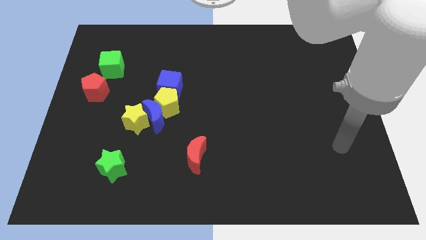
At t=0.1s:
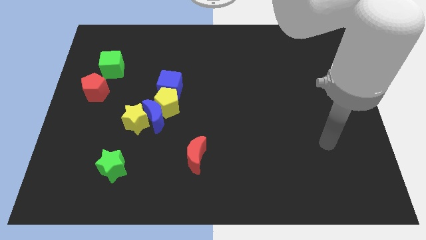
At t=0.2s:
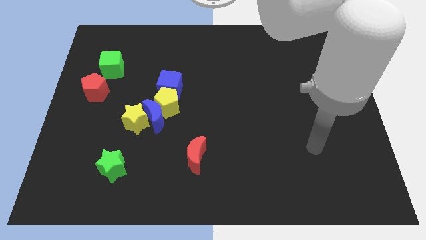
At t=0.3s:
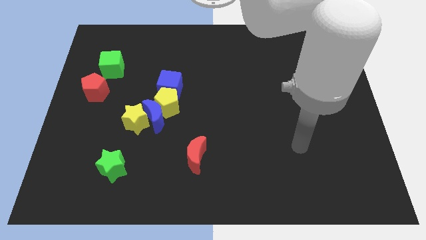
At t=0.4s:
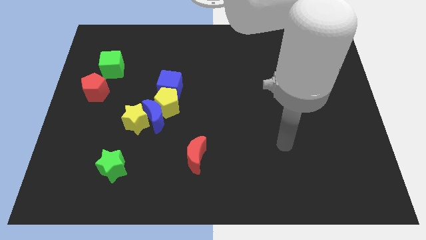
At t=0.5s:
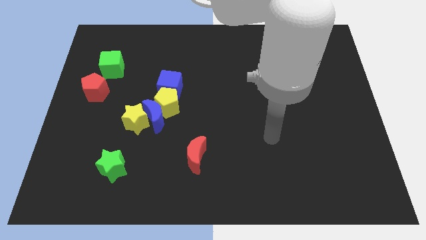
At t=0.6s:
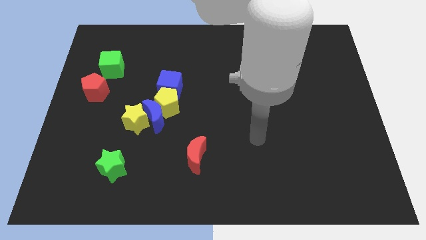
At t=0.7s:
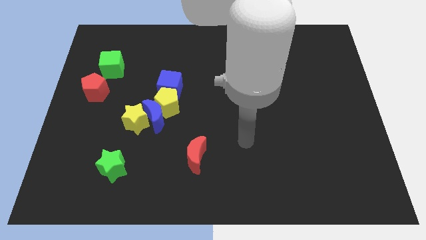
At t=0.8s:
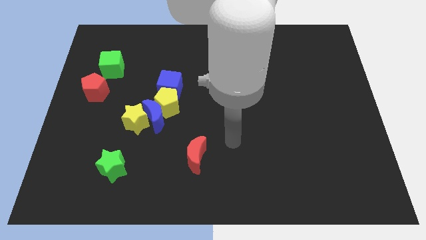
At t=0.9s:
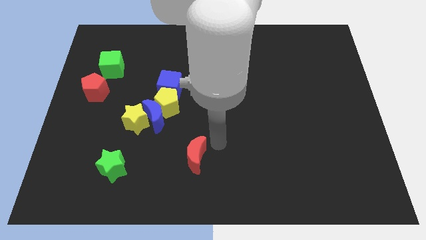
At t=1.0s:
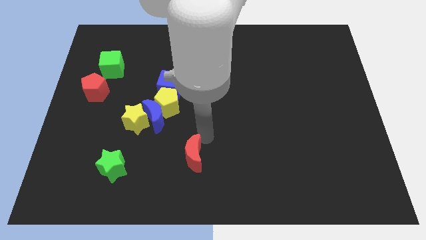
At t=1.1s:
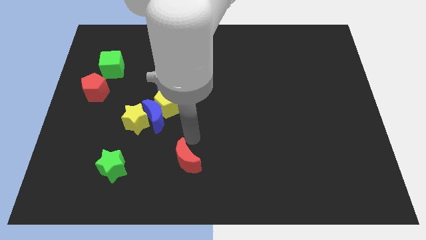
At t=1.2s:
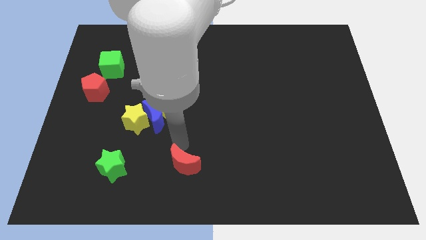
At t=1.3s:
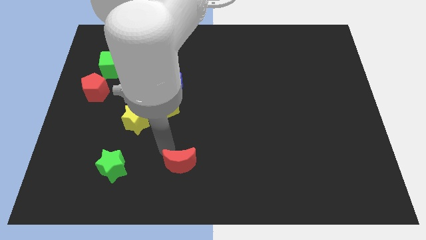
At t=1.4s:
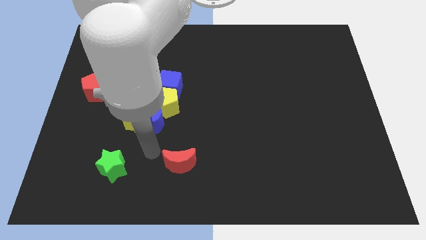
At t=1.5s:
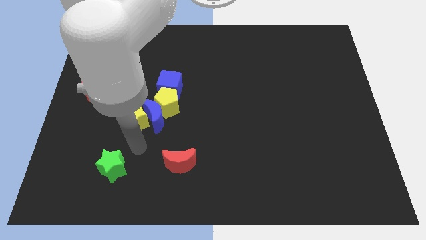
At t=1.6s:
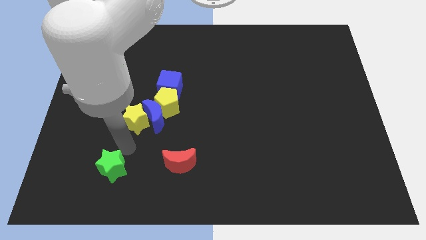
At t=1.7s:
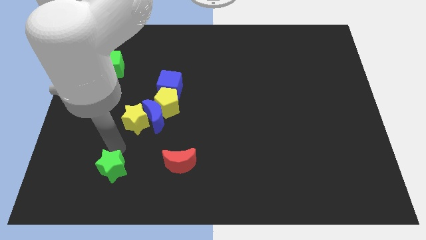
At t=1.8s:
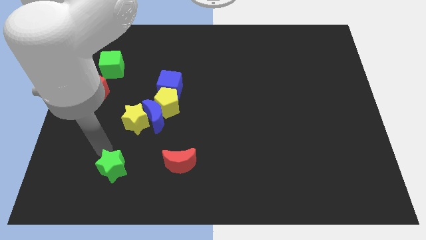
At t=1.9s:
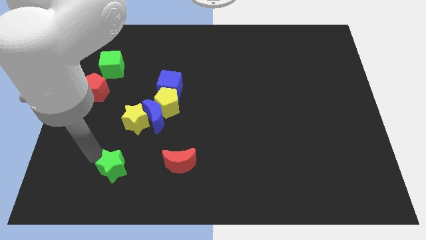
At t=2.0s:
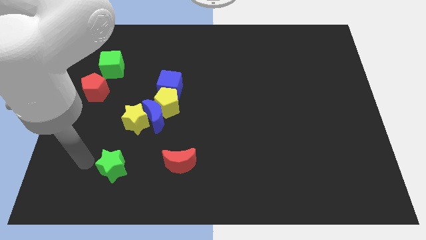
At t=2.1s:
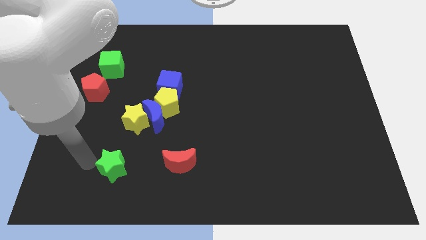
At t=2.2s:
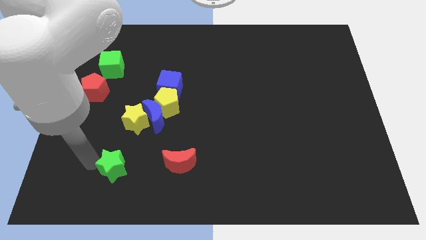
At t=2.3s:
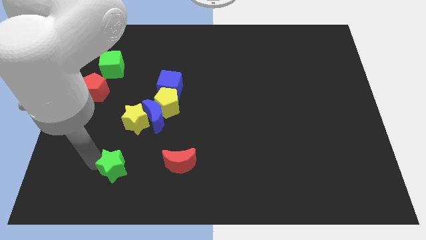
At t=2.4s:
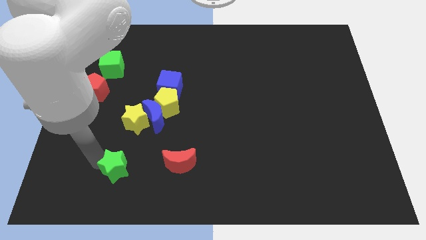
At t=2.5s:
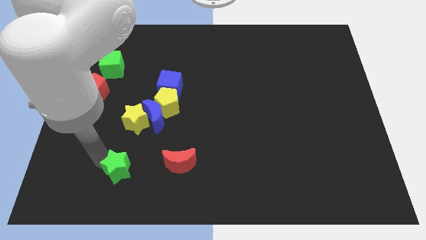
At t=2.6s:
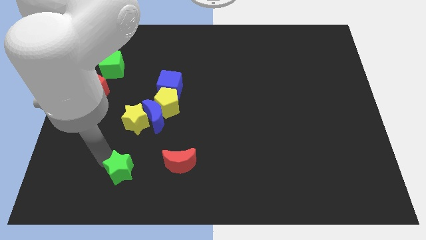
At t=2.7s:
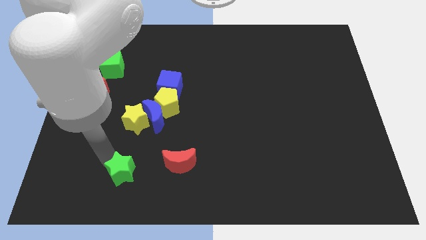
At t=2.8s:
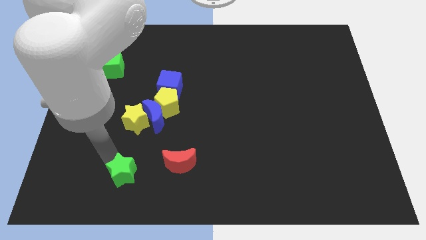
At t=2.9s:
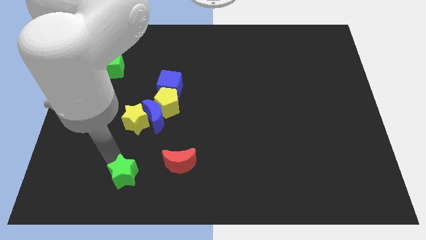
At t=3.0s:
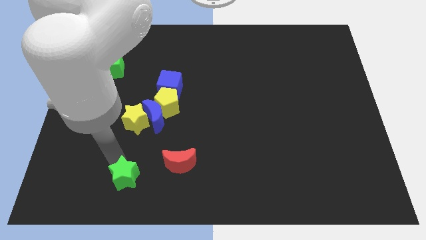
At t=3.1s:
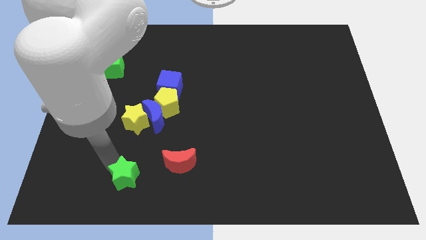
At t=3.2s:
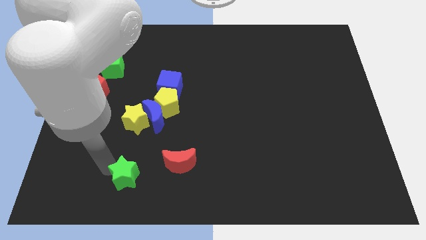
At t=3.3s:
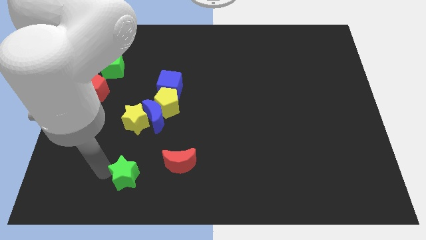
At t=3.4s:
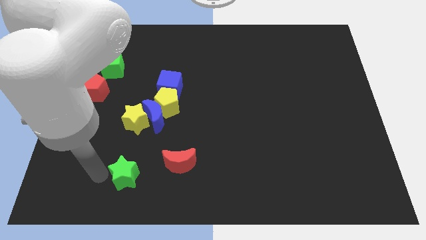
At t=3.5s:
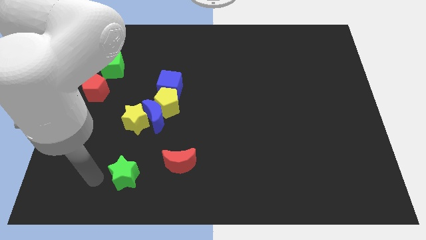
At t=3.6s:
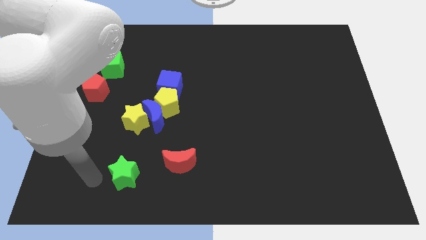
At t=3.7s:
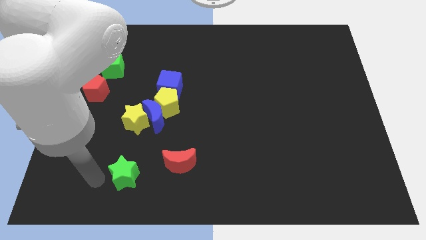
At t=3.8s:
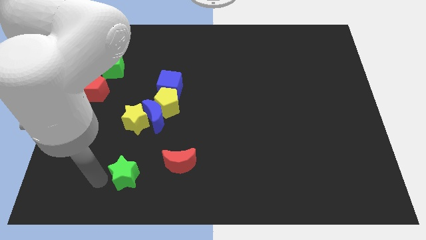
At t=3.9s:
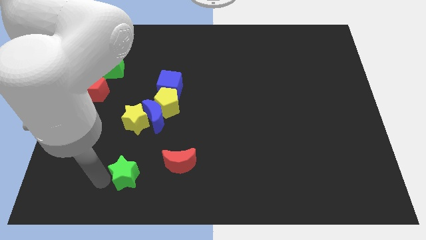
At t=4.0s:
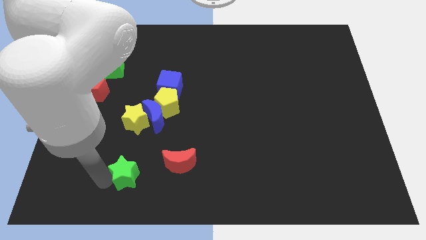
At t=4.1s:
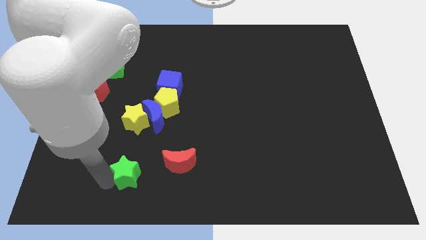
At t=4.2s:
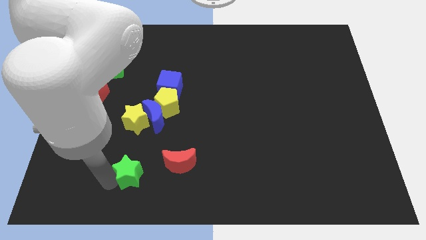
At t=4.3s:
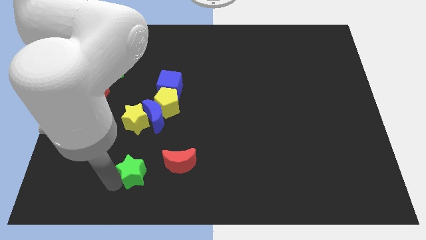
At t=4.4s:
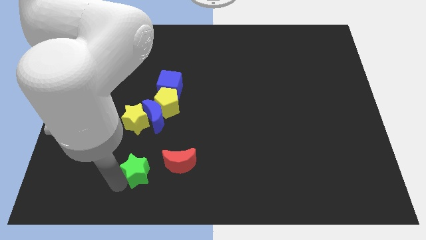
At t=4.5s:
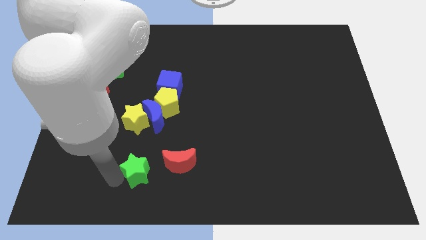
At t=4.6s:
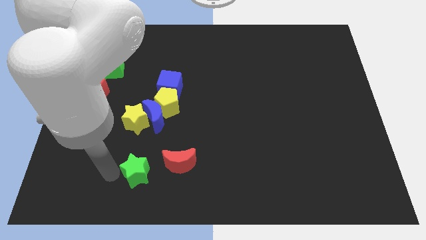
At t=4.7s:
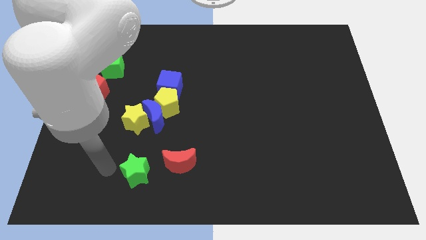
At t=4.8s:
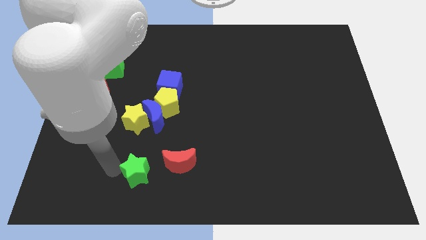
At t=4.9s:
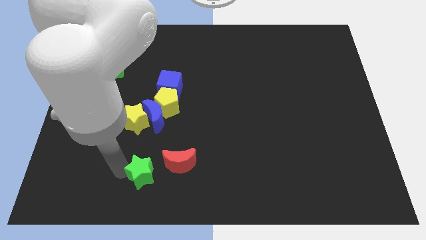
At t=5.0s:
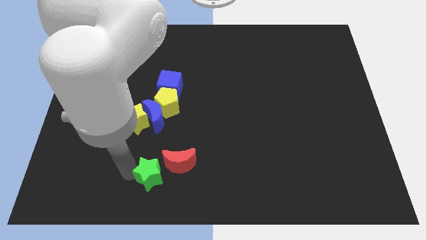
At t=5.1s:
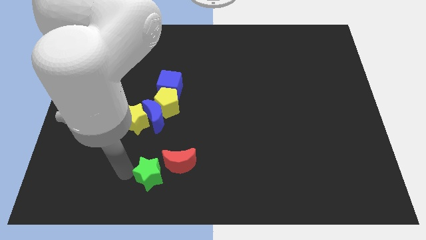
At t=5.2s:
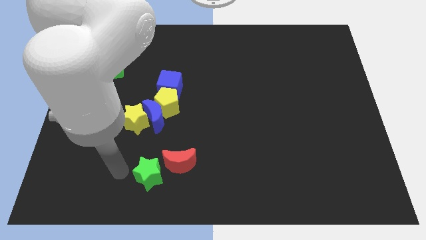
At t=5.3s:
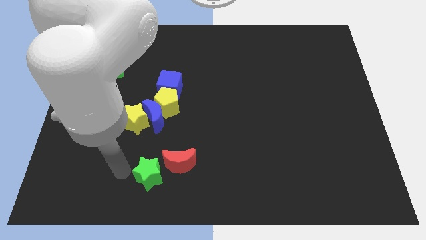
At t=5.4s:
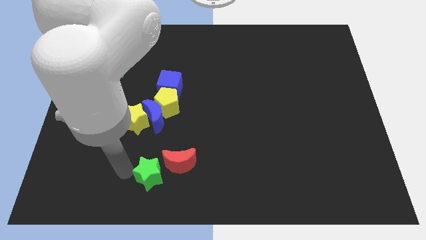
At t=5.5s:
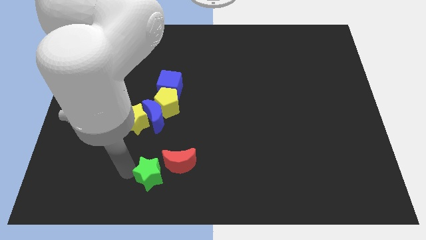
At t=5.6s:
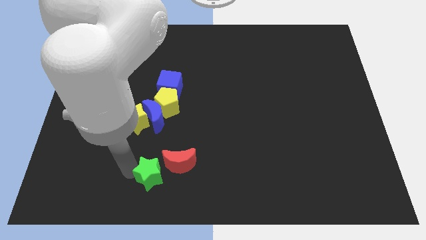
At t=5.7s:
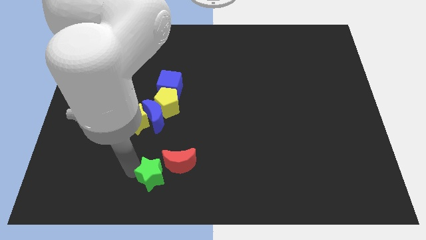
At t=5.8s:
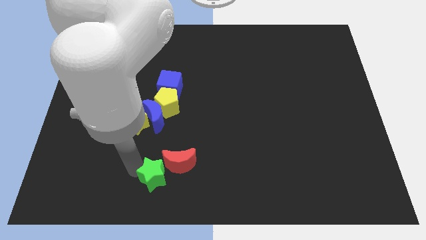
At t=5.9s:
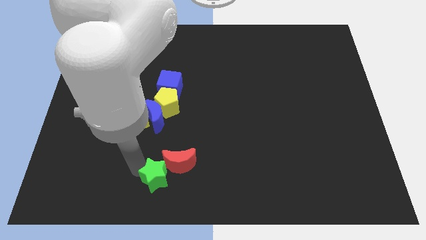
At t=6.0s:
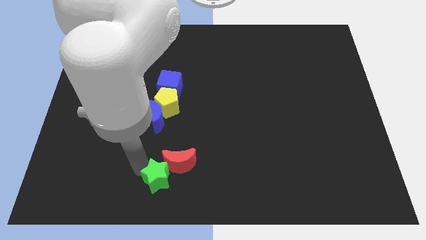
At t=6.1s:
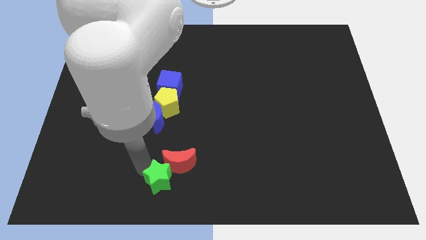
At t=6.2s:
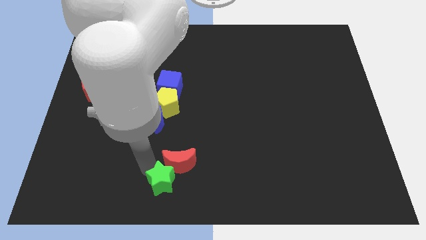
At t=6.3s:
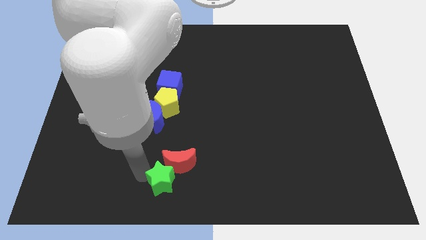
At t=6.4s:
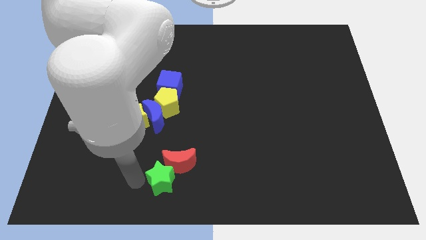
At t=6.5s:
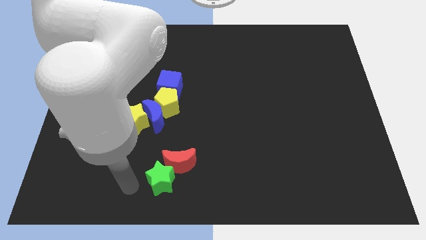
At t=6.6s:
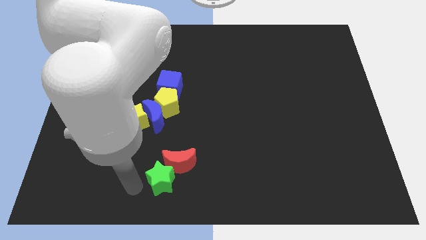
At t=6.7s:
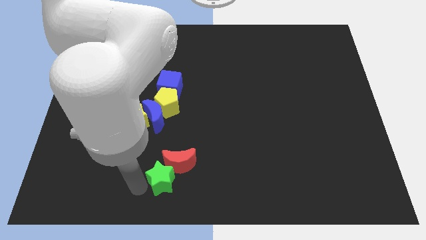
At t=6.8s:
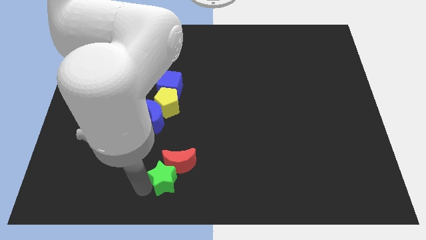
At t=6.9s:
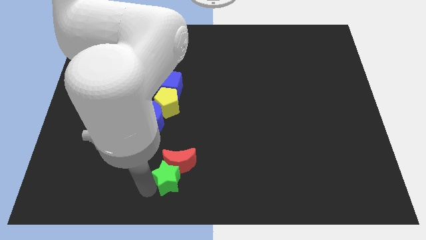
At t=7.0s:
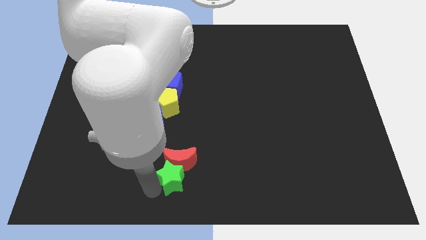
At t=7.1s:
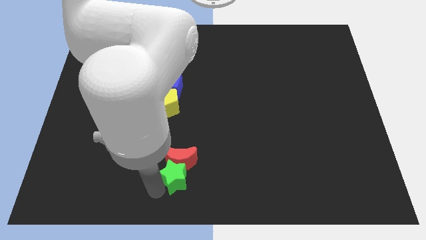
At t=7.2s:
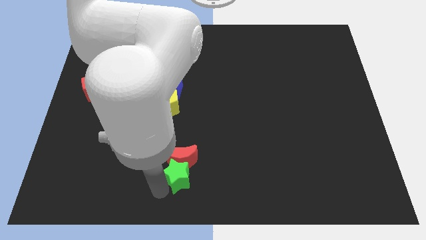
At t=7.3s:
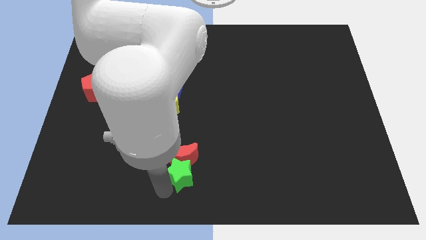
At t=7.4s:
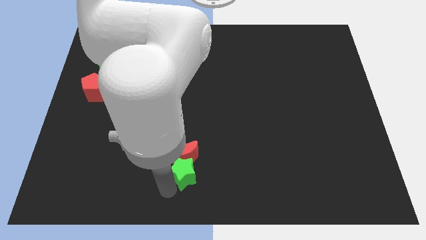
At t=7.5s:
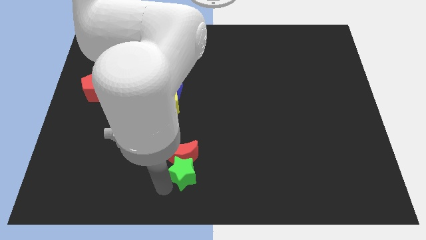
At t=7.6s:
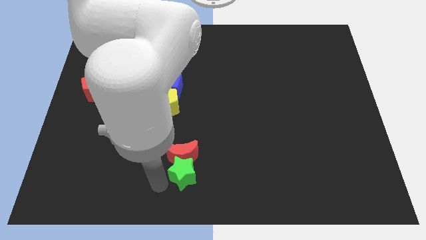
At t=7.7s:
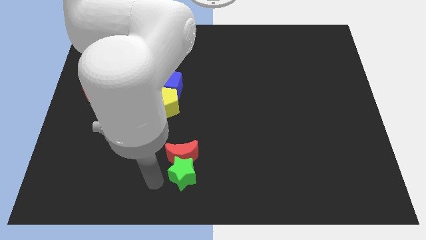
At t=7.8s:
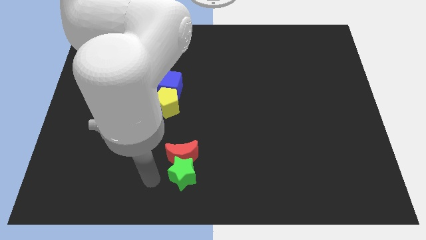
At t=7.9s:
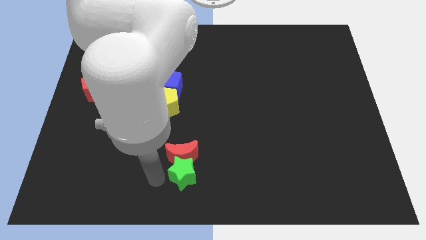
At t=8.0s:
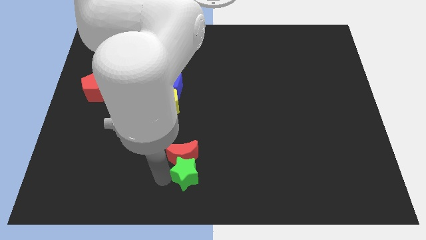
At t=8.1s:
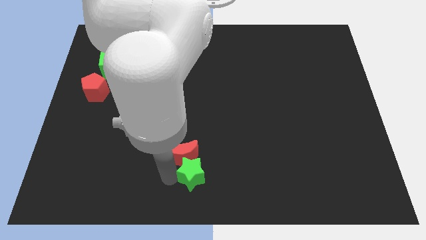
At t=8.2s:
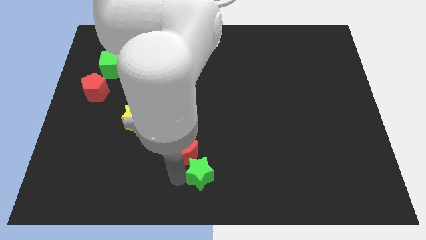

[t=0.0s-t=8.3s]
put the green star to the right side of the red moon
